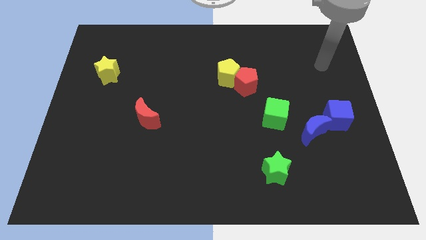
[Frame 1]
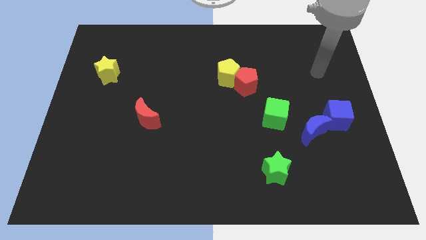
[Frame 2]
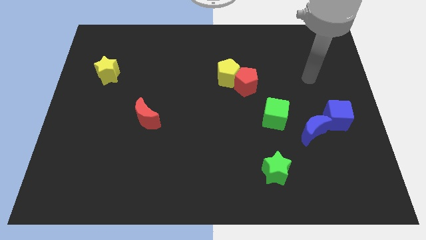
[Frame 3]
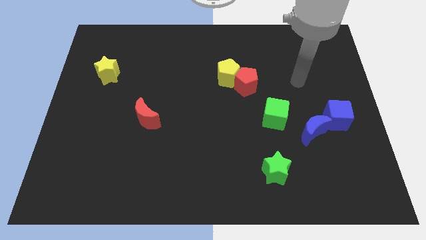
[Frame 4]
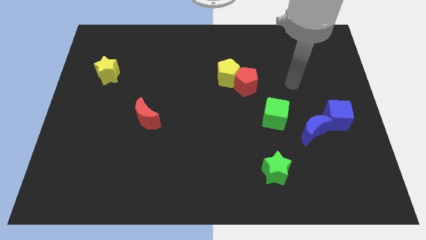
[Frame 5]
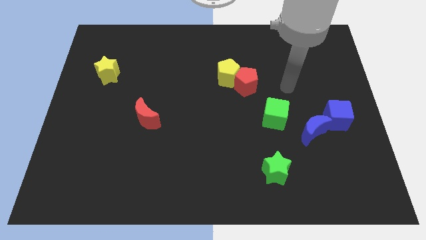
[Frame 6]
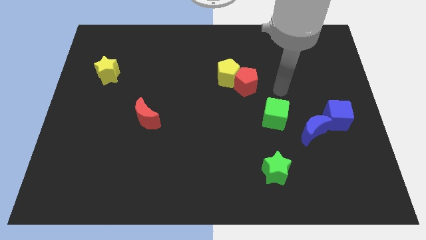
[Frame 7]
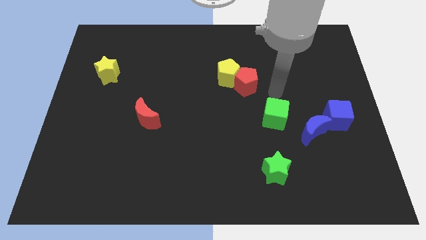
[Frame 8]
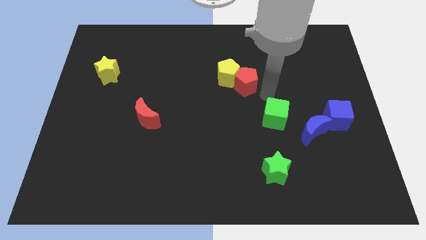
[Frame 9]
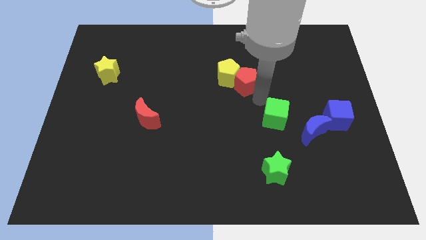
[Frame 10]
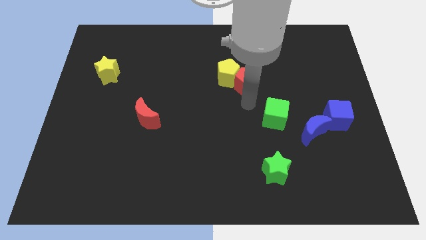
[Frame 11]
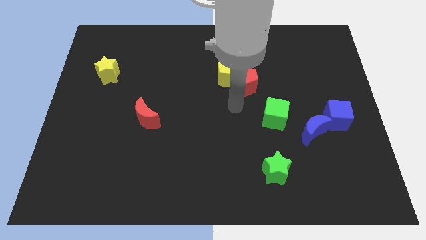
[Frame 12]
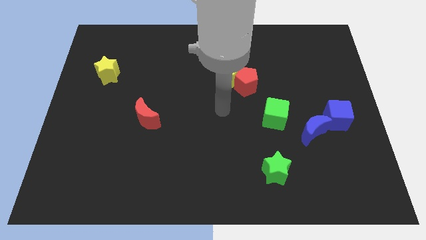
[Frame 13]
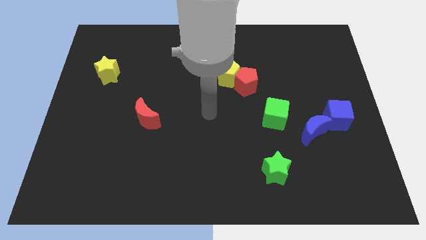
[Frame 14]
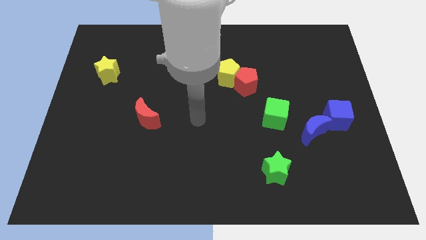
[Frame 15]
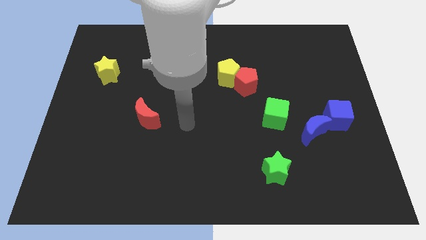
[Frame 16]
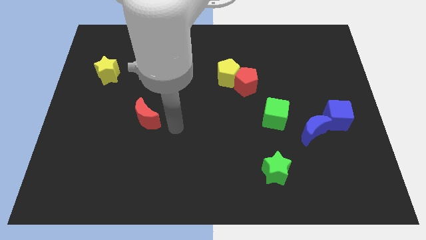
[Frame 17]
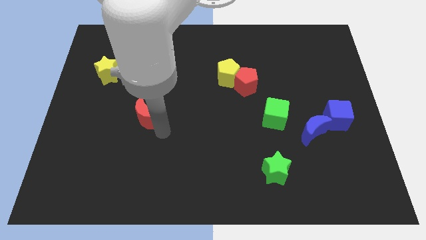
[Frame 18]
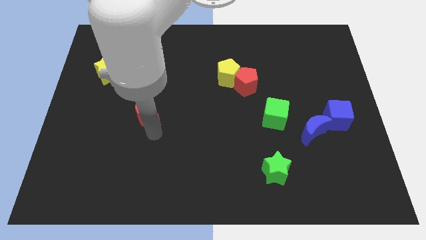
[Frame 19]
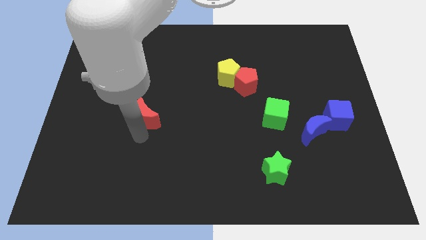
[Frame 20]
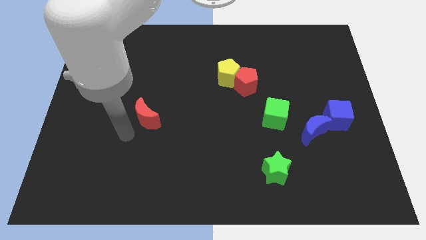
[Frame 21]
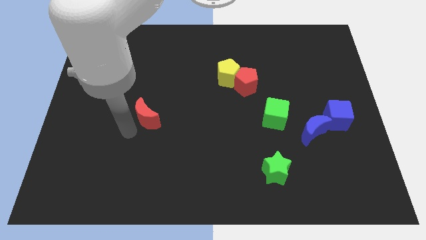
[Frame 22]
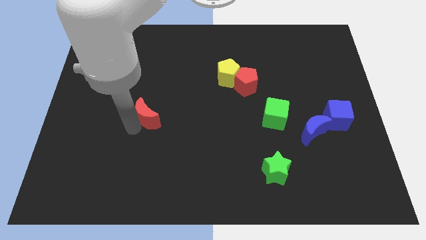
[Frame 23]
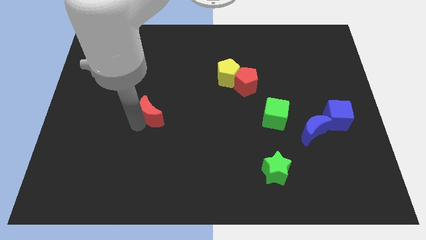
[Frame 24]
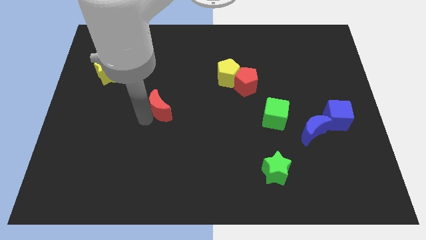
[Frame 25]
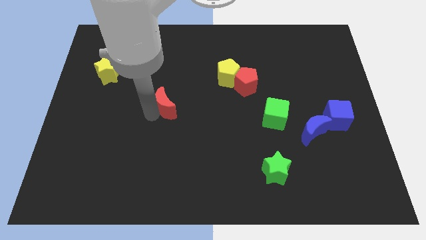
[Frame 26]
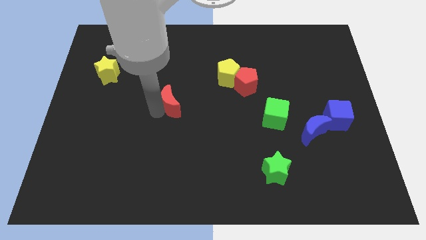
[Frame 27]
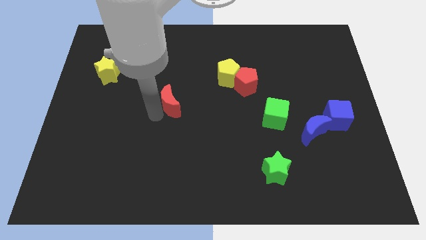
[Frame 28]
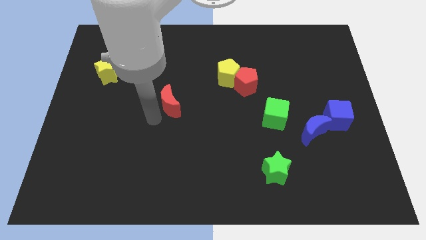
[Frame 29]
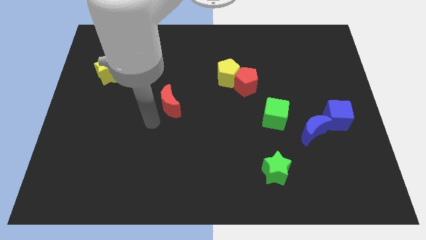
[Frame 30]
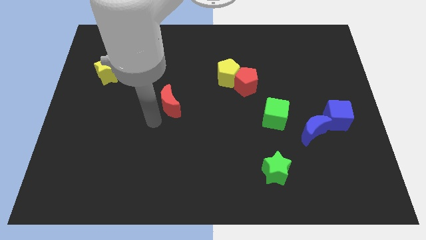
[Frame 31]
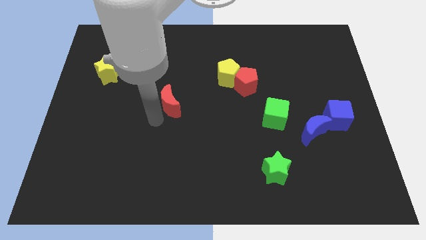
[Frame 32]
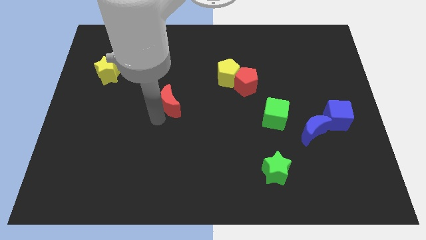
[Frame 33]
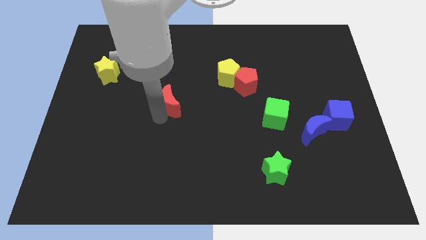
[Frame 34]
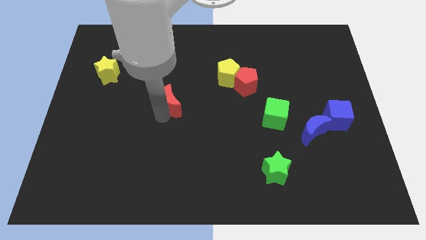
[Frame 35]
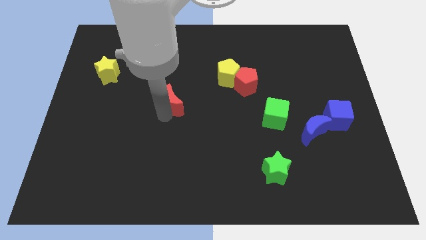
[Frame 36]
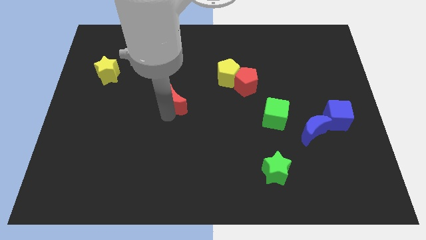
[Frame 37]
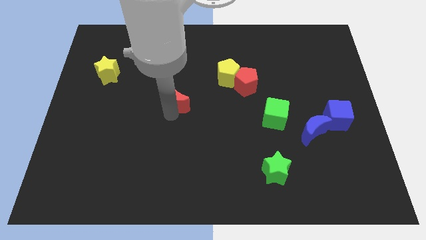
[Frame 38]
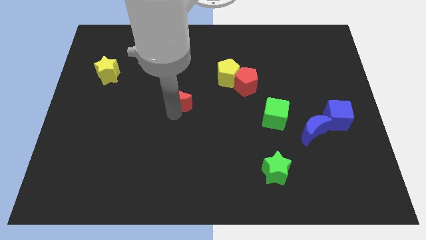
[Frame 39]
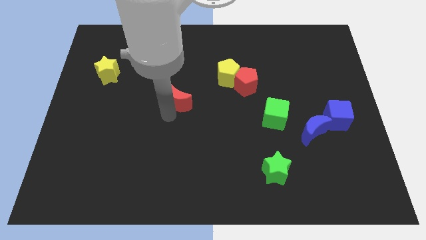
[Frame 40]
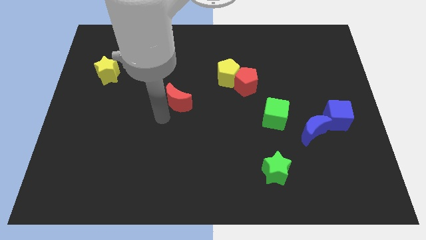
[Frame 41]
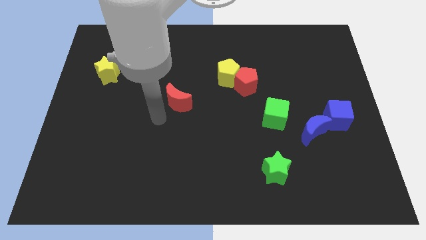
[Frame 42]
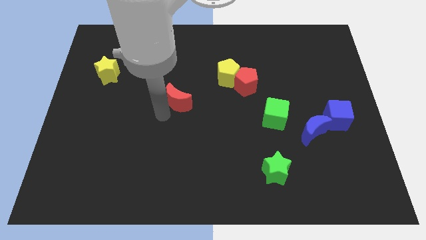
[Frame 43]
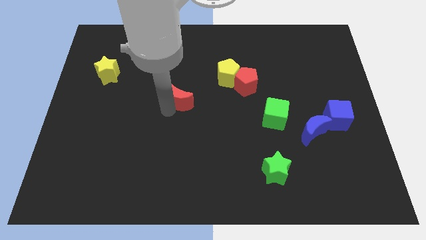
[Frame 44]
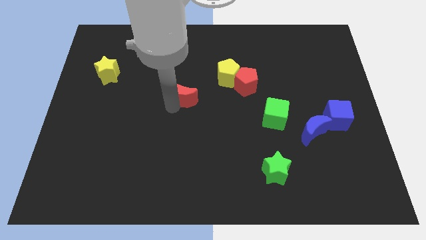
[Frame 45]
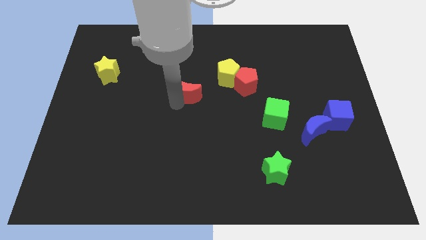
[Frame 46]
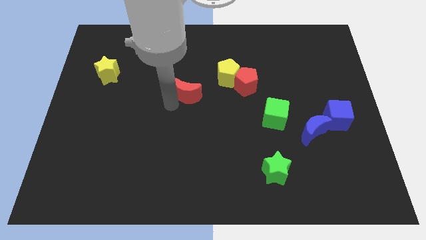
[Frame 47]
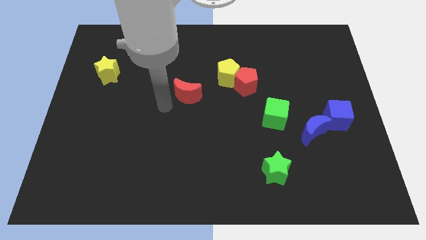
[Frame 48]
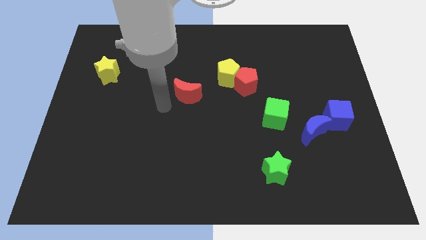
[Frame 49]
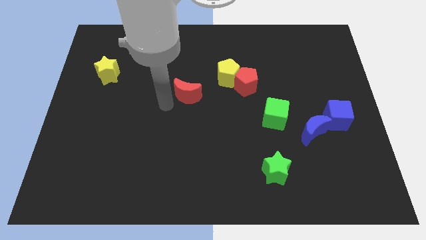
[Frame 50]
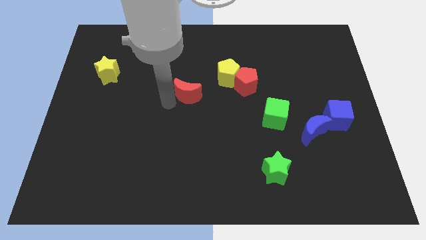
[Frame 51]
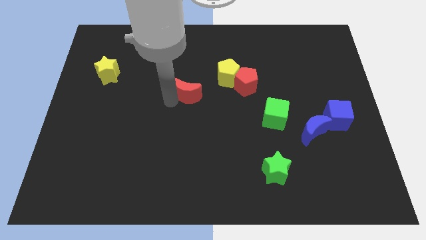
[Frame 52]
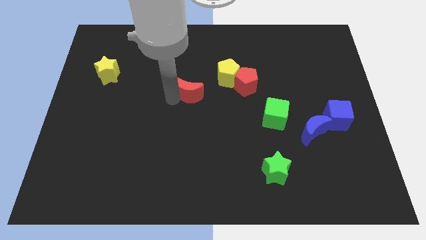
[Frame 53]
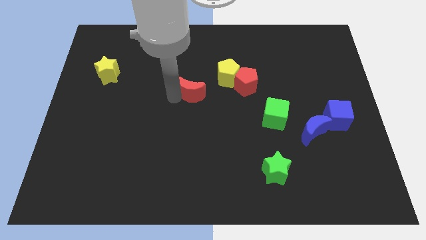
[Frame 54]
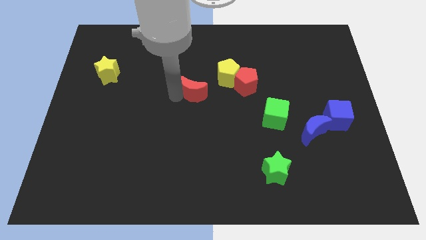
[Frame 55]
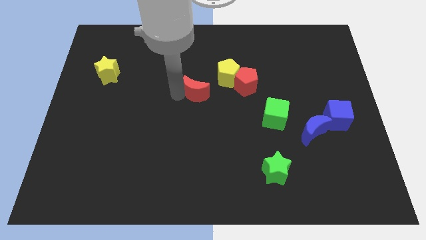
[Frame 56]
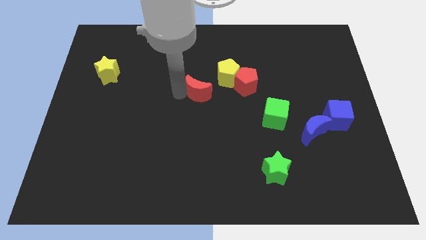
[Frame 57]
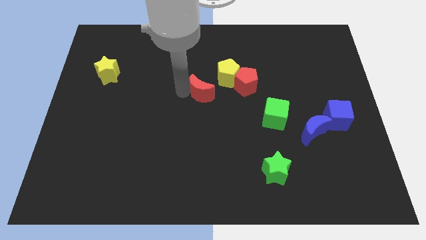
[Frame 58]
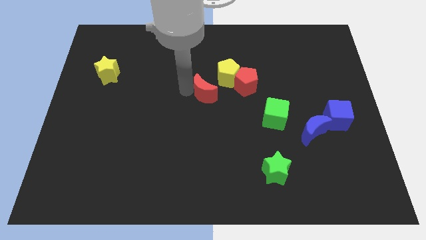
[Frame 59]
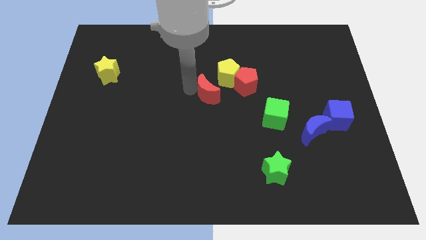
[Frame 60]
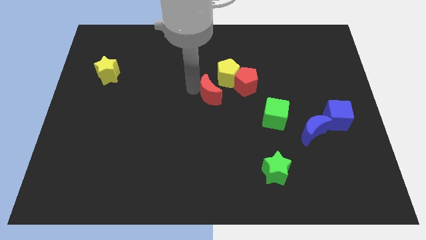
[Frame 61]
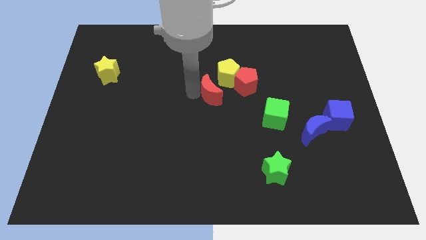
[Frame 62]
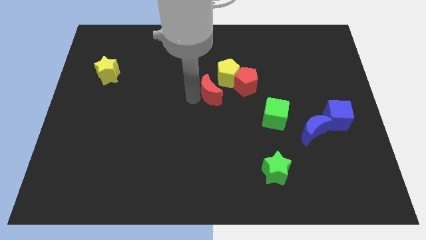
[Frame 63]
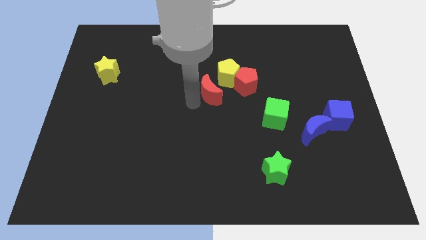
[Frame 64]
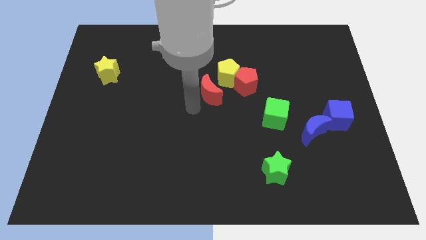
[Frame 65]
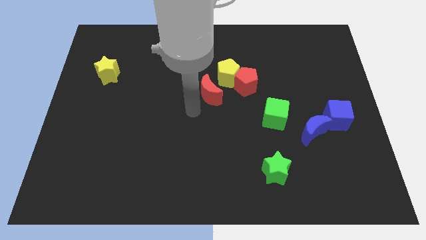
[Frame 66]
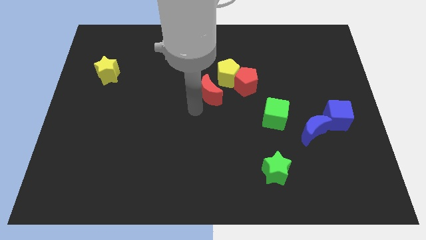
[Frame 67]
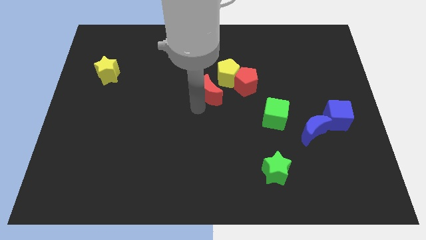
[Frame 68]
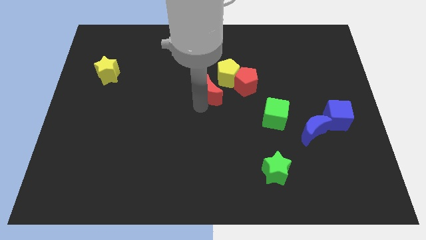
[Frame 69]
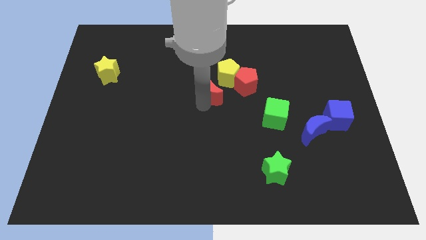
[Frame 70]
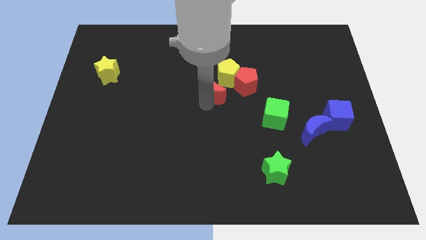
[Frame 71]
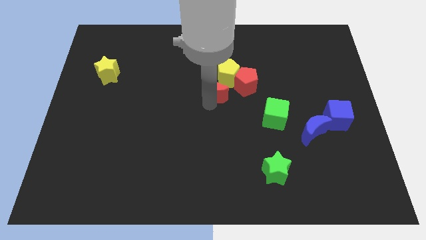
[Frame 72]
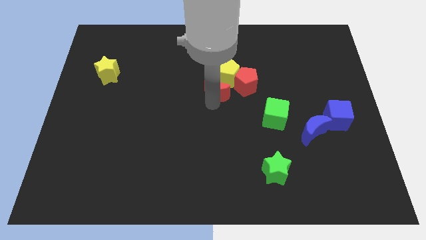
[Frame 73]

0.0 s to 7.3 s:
push the red moon close to the yellow pentagon
